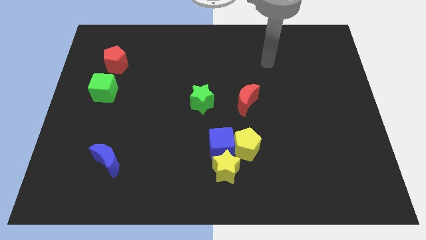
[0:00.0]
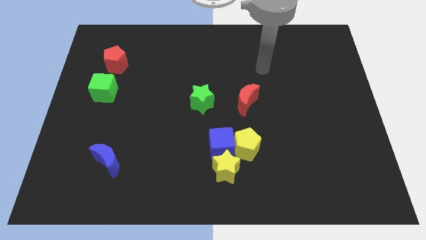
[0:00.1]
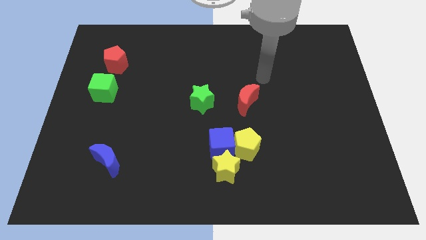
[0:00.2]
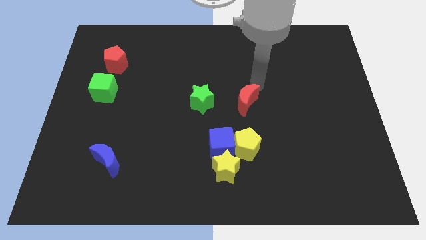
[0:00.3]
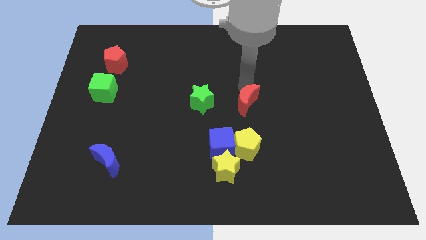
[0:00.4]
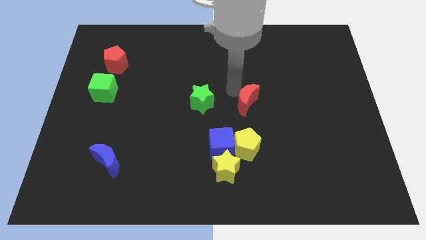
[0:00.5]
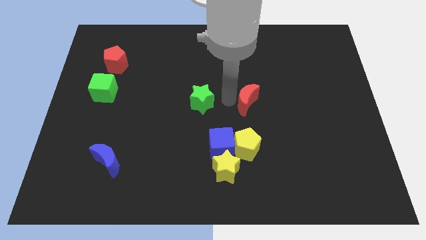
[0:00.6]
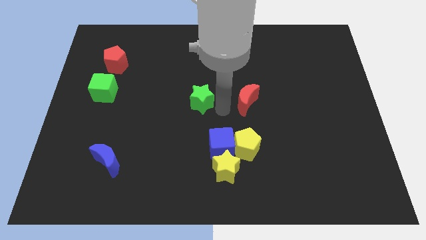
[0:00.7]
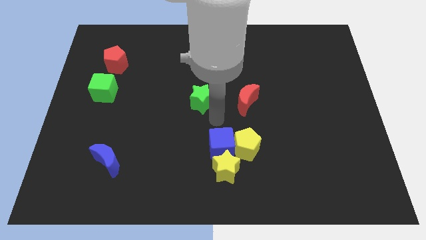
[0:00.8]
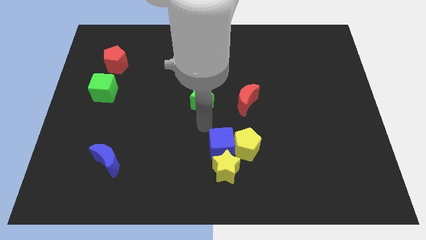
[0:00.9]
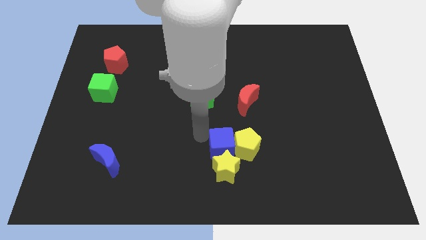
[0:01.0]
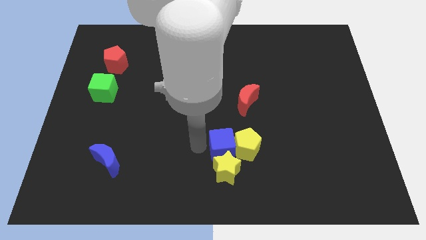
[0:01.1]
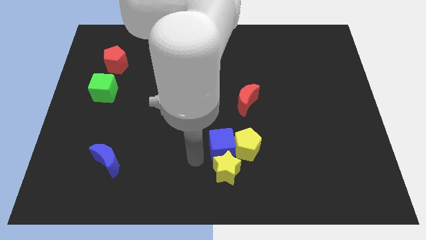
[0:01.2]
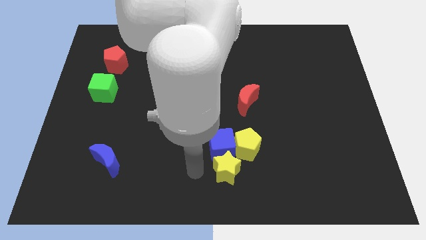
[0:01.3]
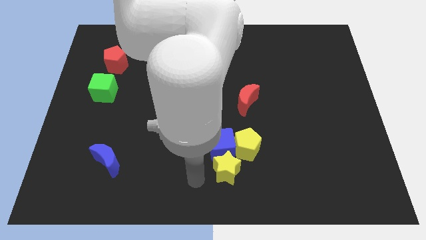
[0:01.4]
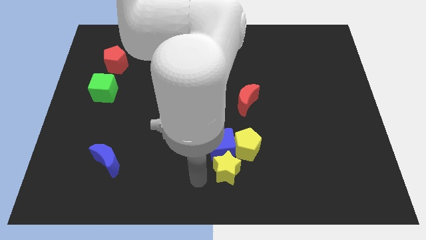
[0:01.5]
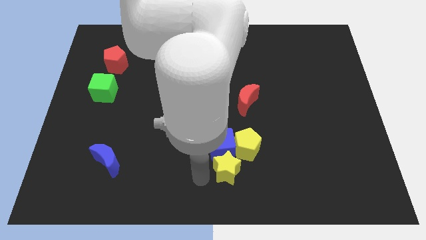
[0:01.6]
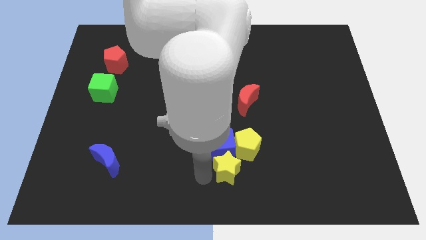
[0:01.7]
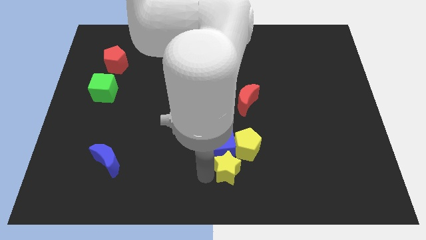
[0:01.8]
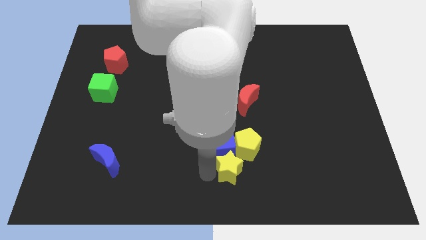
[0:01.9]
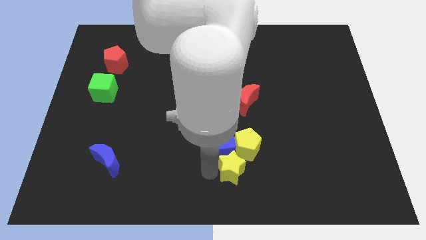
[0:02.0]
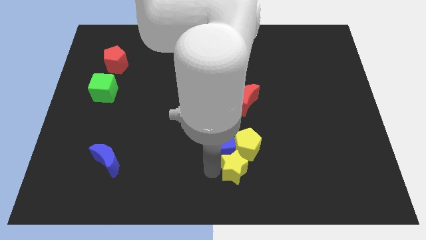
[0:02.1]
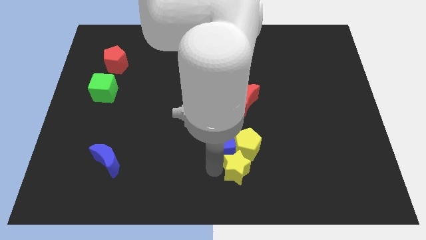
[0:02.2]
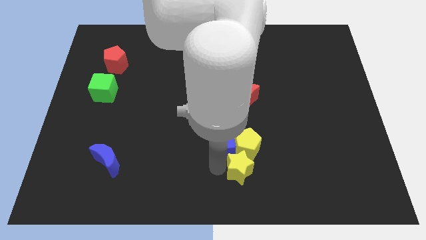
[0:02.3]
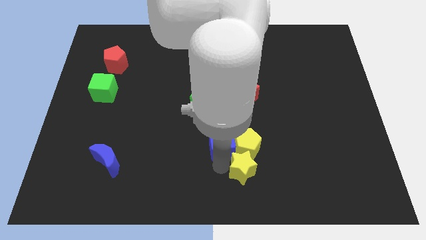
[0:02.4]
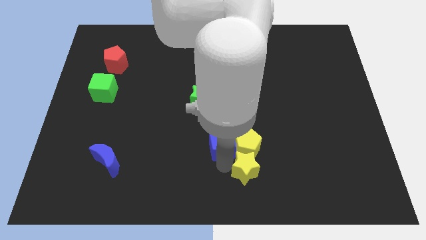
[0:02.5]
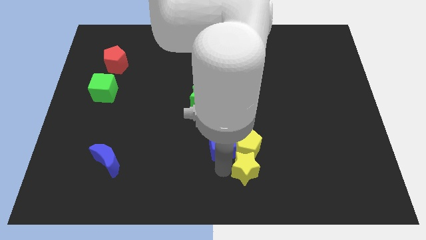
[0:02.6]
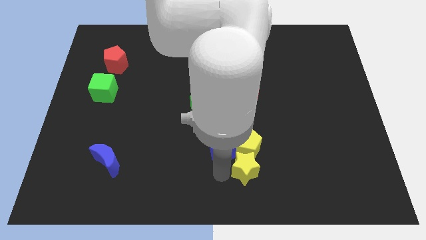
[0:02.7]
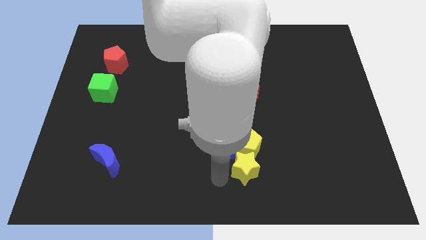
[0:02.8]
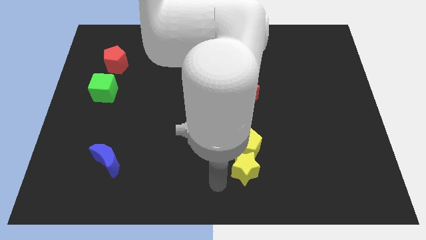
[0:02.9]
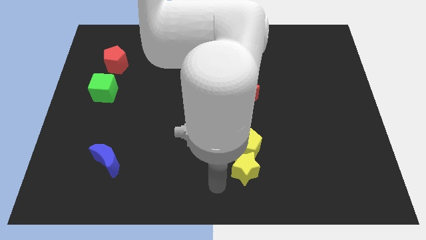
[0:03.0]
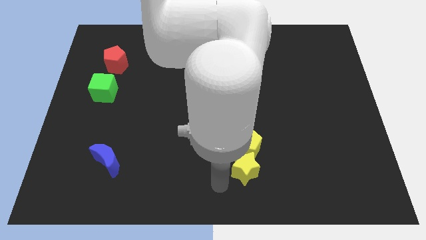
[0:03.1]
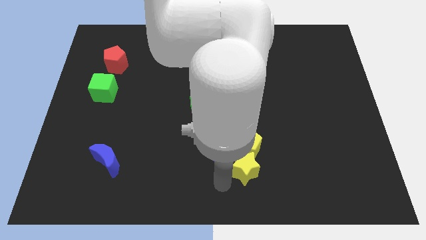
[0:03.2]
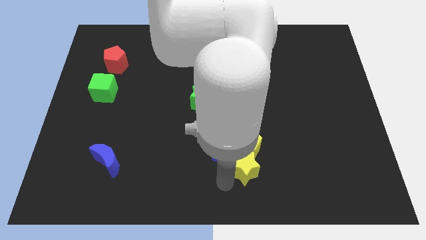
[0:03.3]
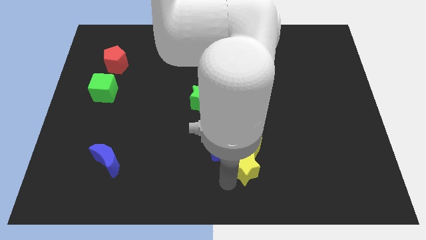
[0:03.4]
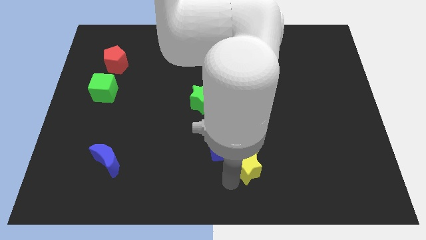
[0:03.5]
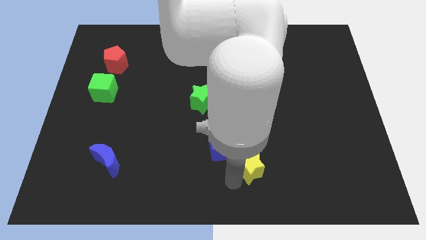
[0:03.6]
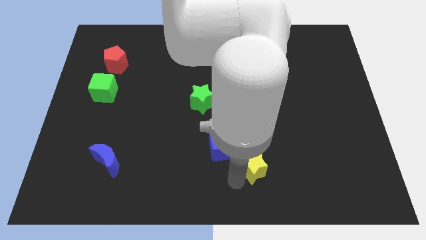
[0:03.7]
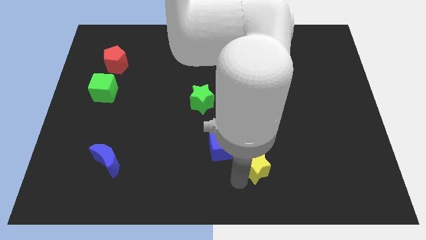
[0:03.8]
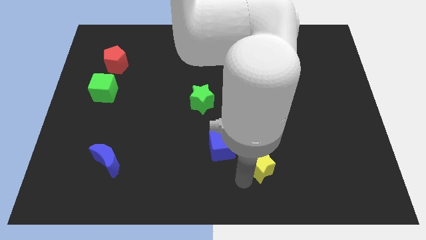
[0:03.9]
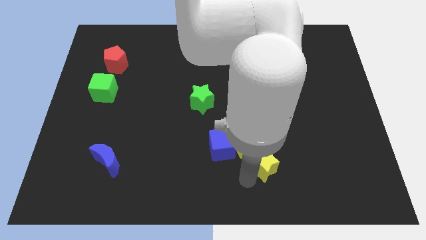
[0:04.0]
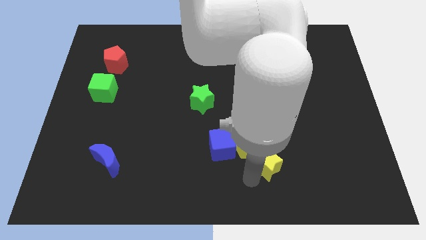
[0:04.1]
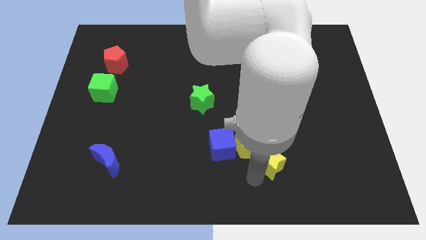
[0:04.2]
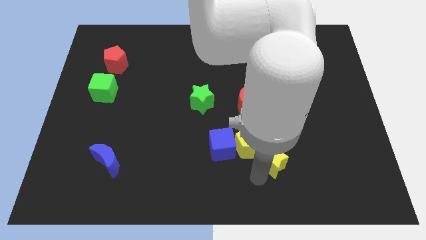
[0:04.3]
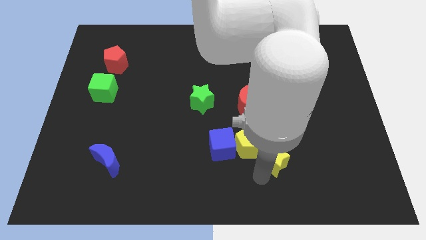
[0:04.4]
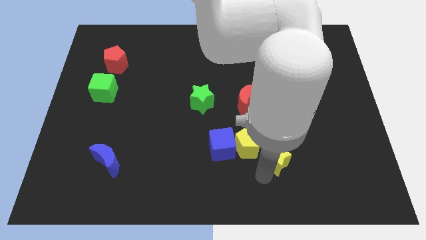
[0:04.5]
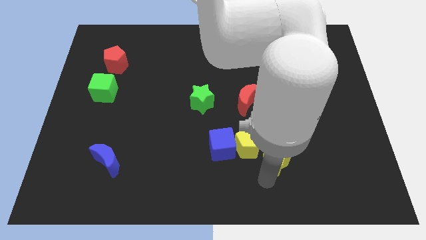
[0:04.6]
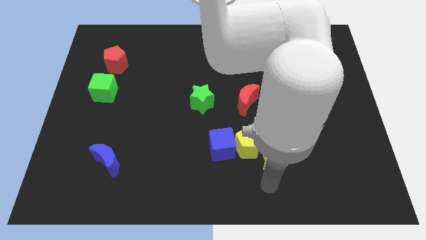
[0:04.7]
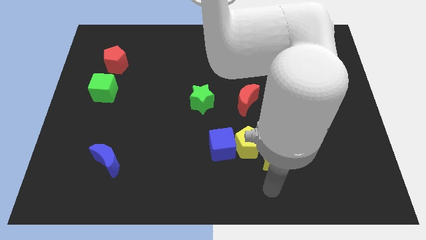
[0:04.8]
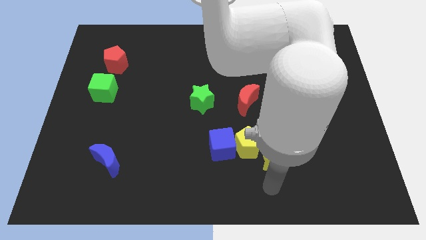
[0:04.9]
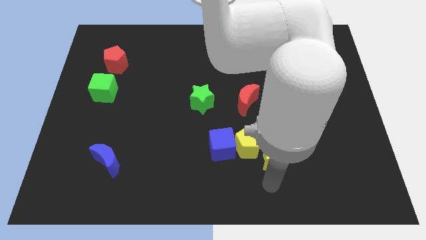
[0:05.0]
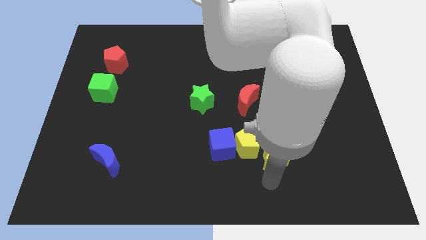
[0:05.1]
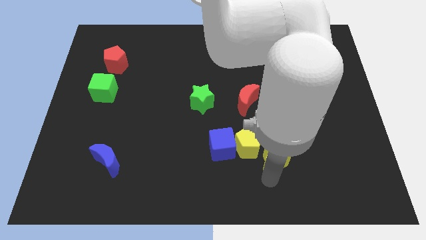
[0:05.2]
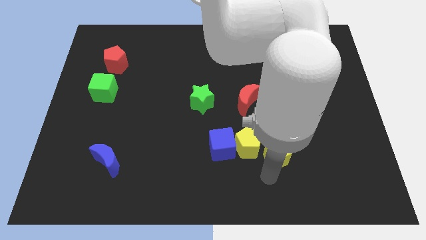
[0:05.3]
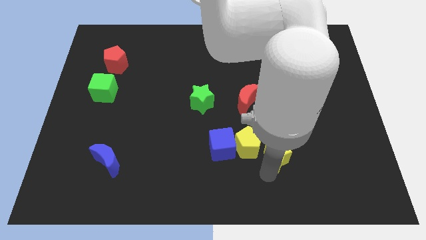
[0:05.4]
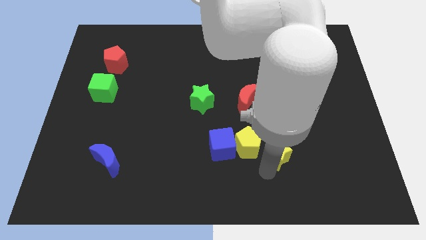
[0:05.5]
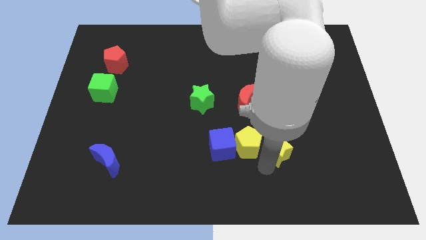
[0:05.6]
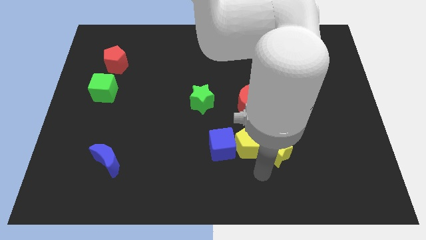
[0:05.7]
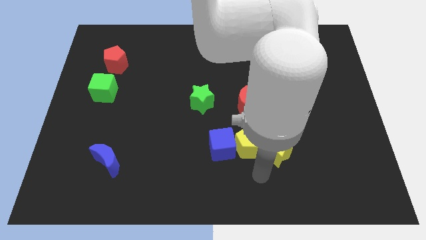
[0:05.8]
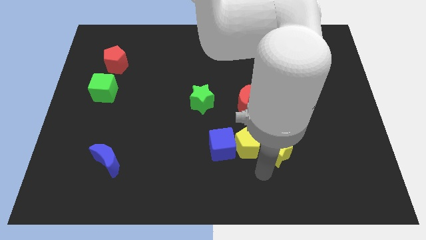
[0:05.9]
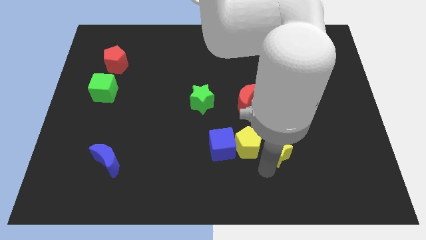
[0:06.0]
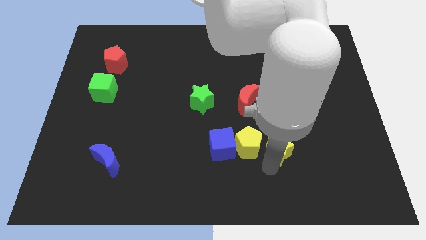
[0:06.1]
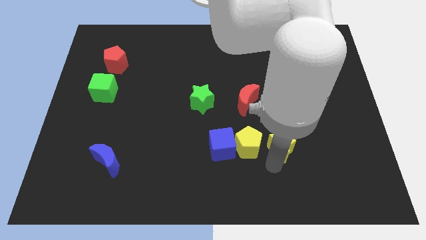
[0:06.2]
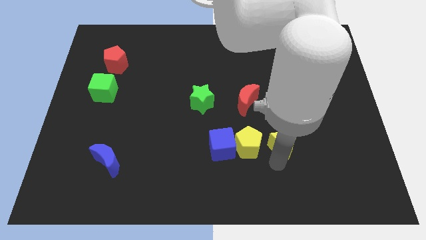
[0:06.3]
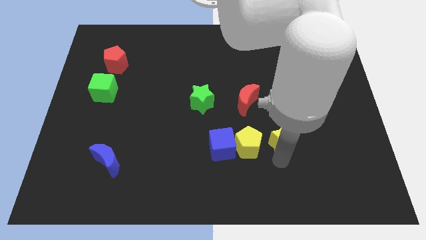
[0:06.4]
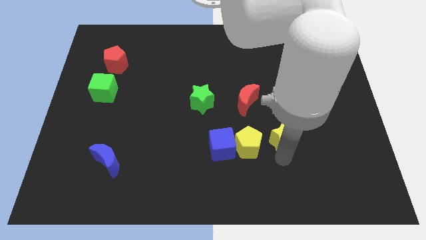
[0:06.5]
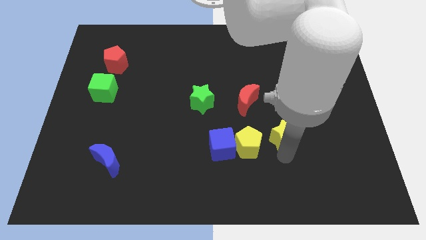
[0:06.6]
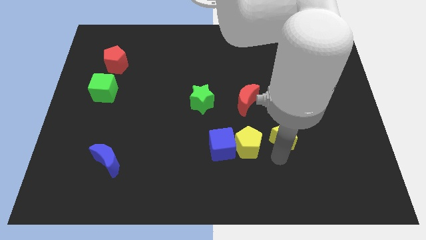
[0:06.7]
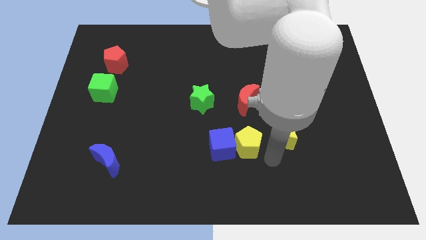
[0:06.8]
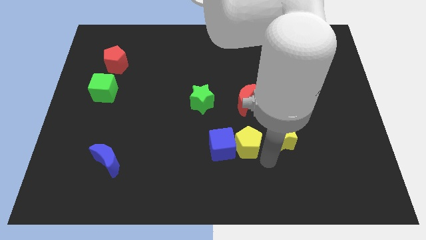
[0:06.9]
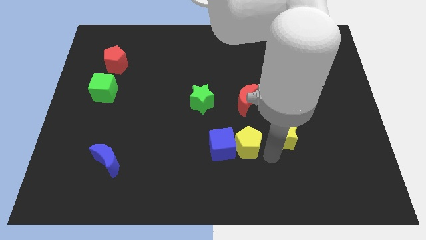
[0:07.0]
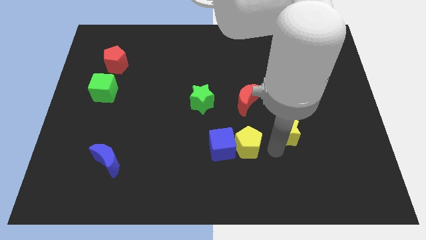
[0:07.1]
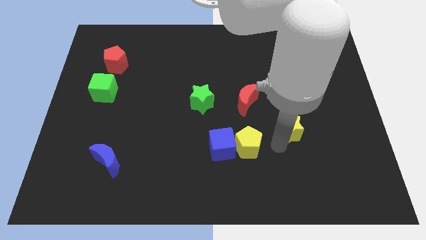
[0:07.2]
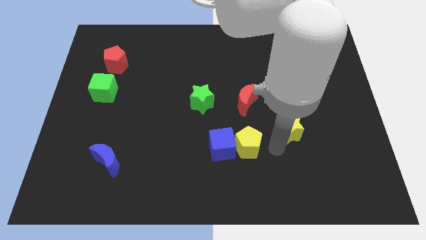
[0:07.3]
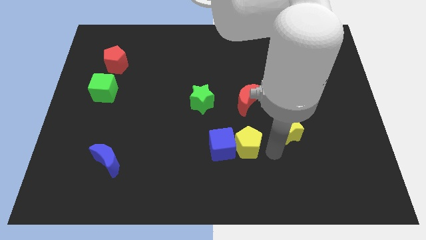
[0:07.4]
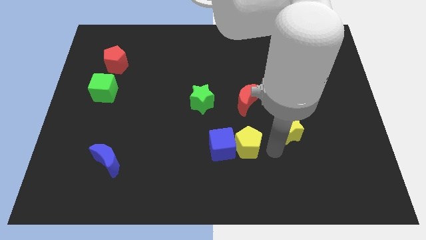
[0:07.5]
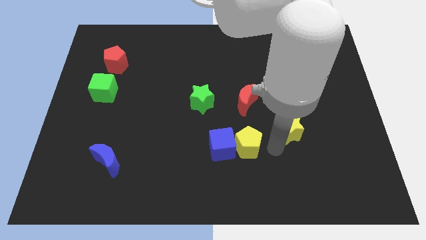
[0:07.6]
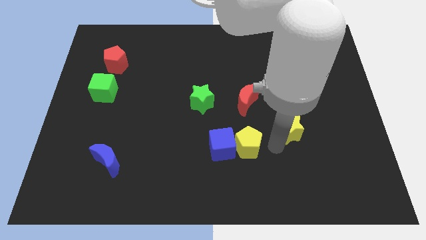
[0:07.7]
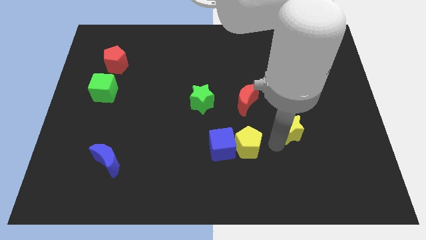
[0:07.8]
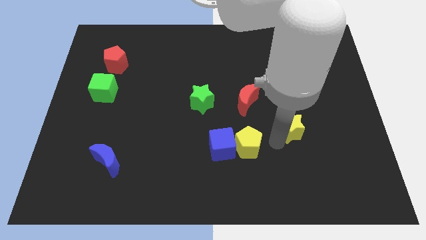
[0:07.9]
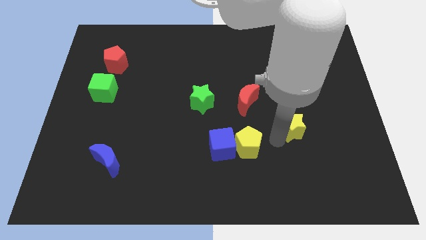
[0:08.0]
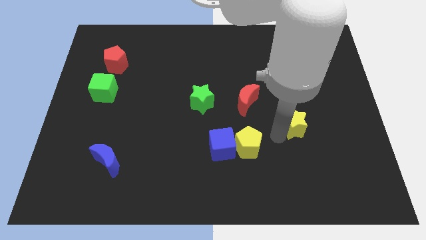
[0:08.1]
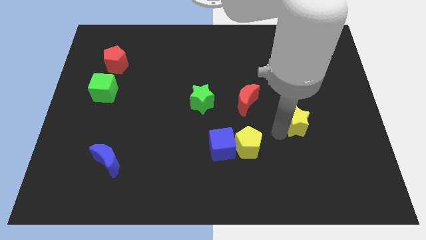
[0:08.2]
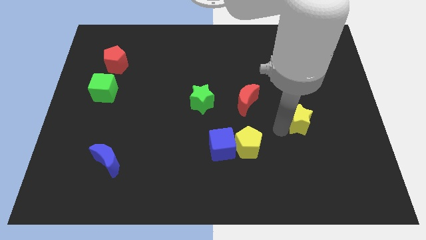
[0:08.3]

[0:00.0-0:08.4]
move the yellow star diagonally upwards and right
